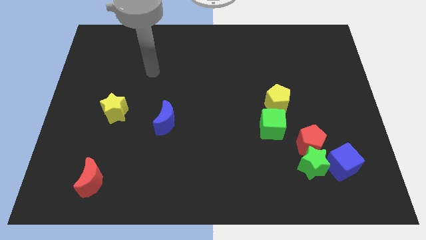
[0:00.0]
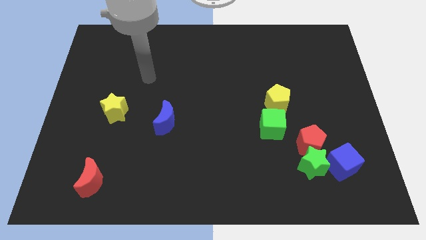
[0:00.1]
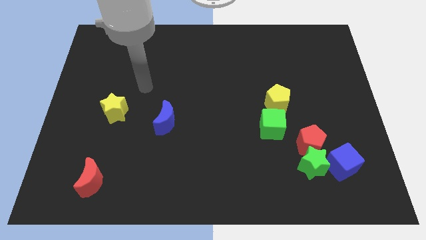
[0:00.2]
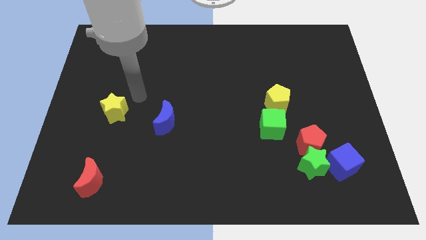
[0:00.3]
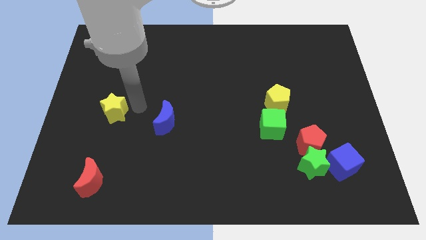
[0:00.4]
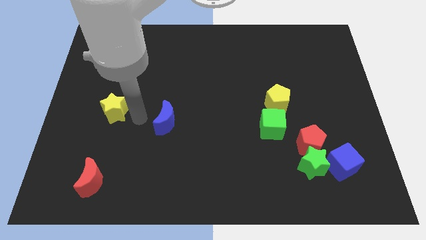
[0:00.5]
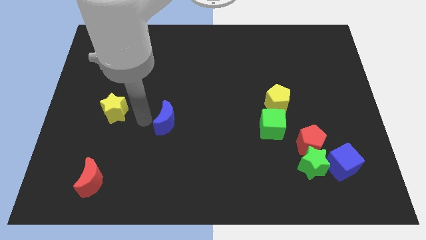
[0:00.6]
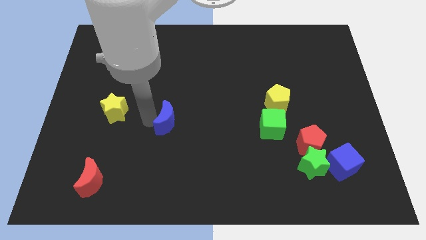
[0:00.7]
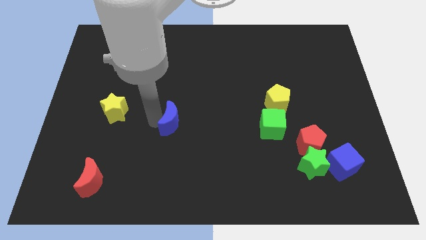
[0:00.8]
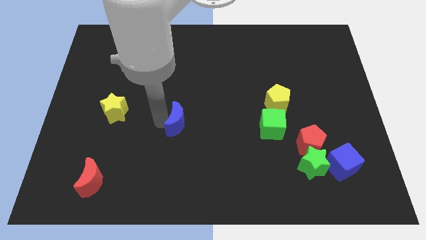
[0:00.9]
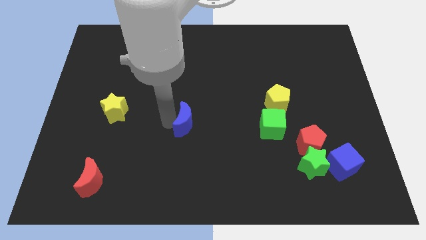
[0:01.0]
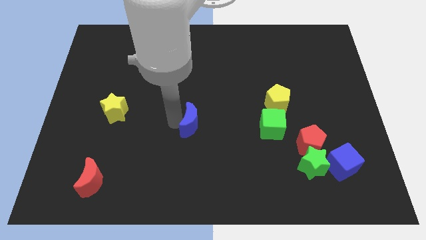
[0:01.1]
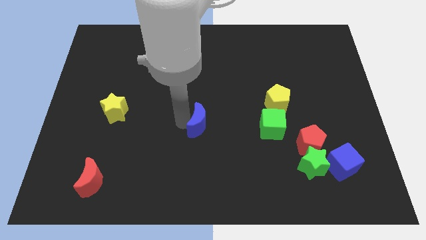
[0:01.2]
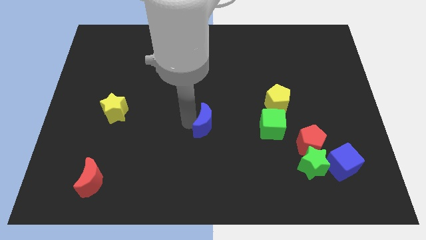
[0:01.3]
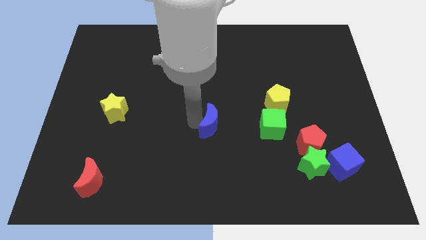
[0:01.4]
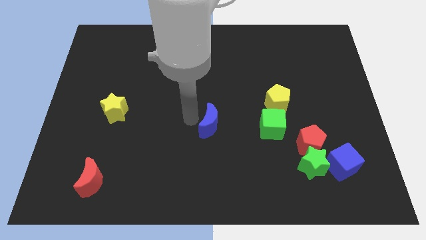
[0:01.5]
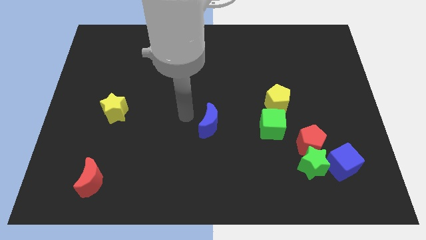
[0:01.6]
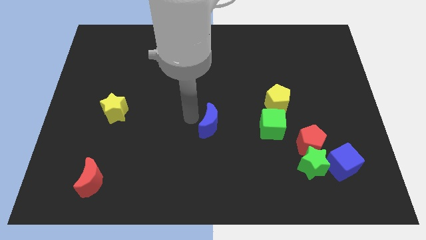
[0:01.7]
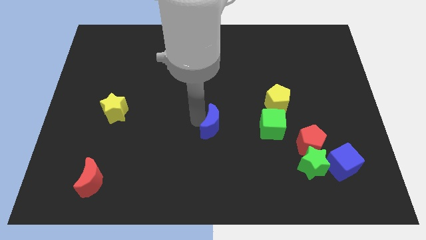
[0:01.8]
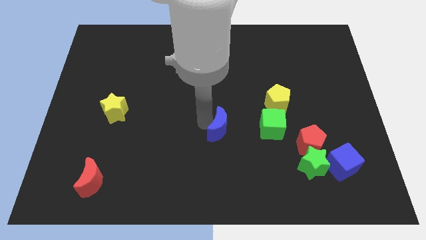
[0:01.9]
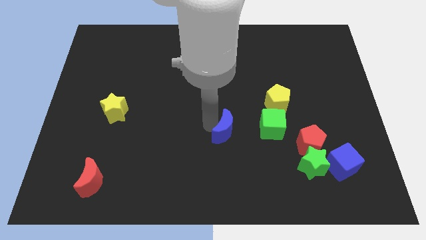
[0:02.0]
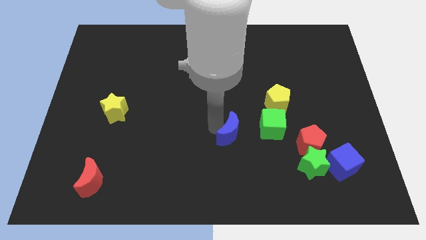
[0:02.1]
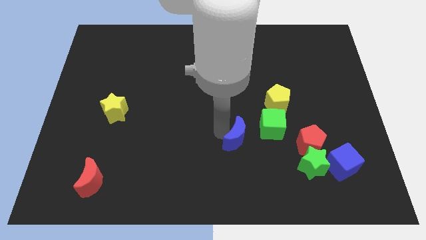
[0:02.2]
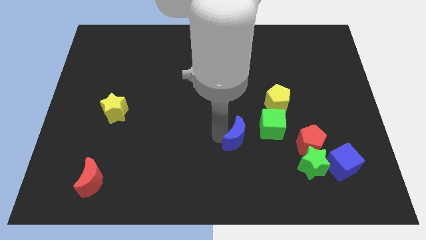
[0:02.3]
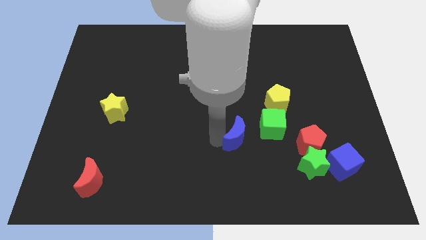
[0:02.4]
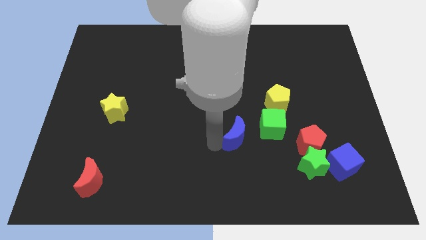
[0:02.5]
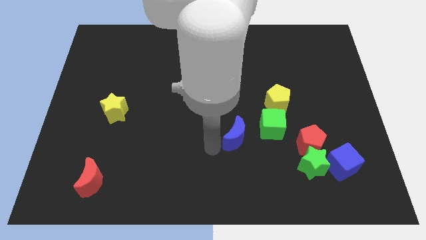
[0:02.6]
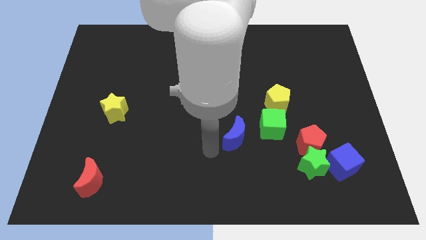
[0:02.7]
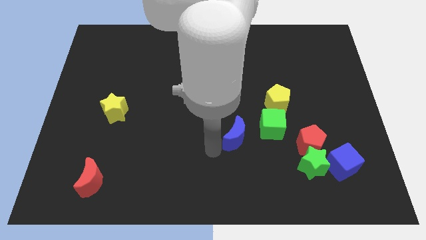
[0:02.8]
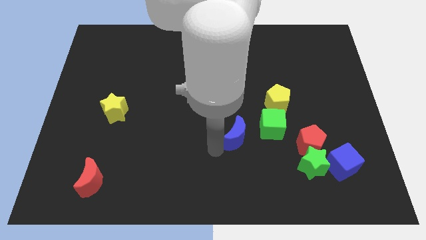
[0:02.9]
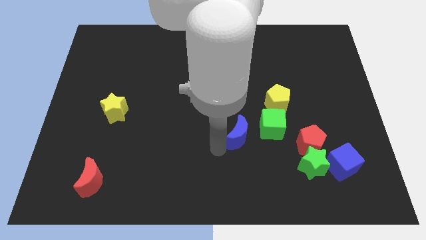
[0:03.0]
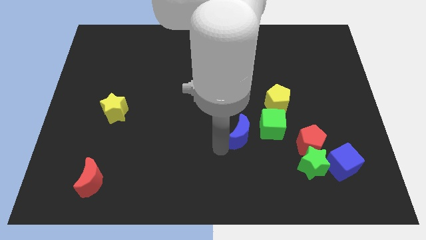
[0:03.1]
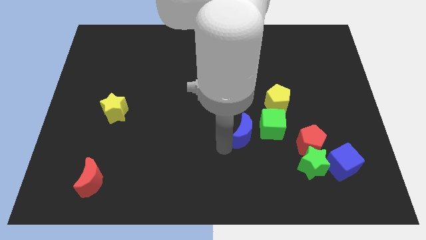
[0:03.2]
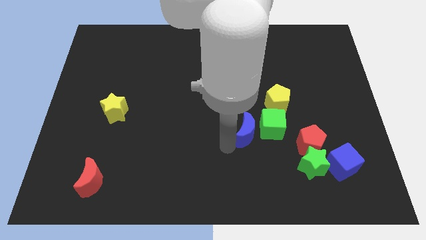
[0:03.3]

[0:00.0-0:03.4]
push the blue moon next to the green cube

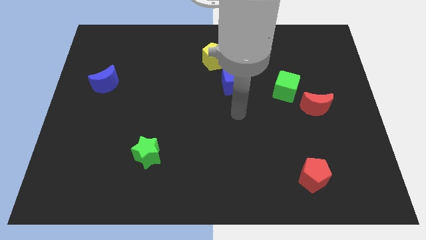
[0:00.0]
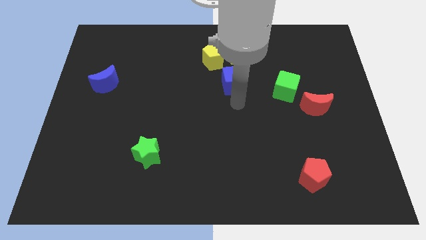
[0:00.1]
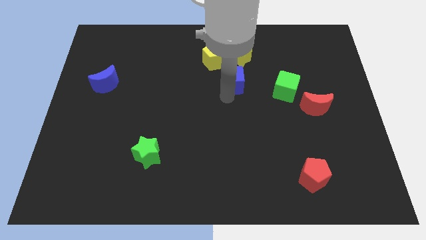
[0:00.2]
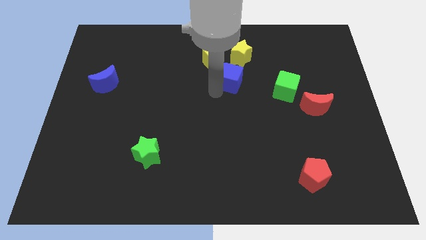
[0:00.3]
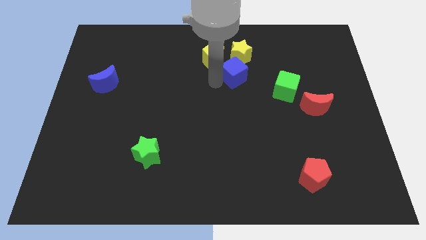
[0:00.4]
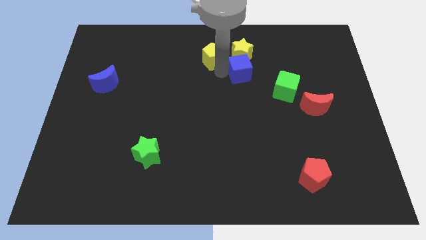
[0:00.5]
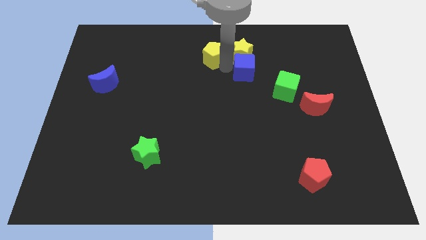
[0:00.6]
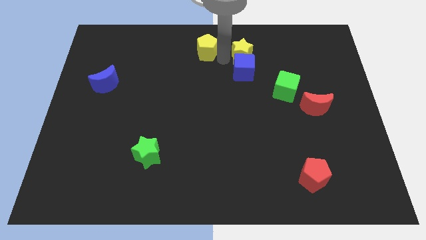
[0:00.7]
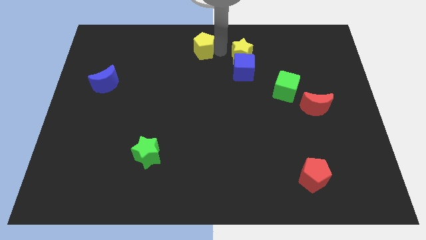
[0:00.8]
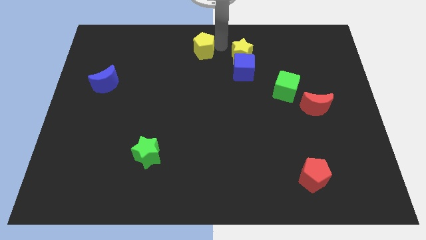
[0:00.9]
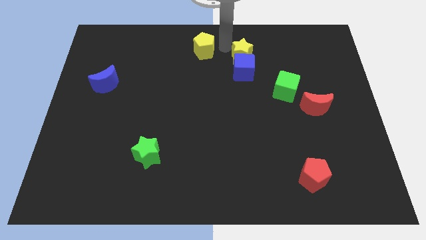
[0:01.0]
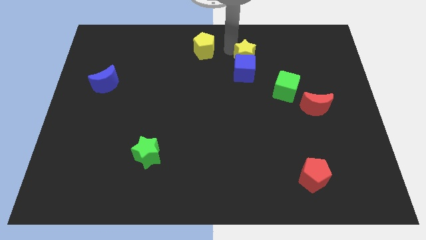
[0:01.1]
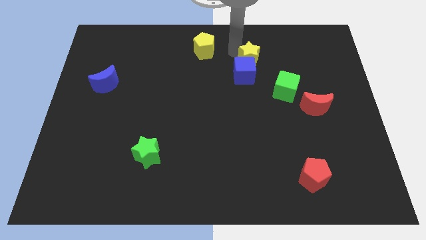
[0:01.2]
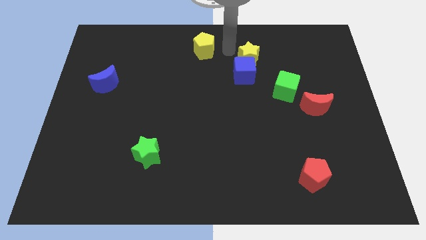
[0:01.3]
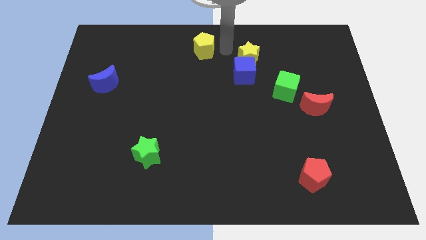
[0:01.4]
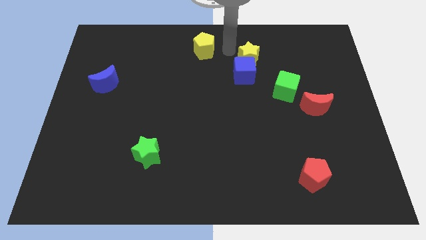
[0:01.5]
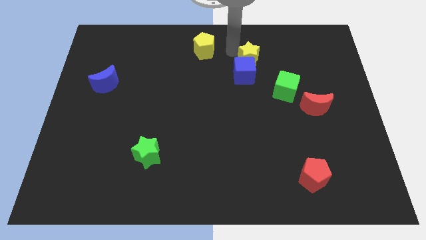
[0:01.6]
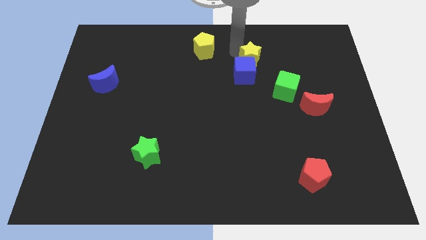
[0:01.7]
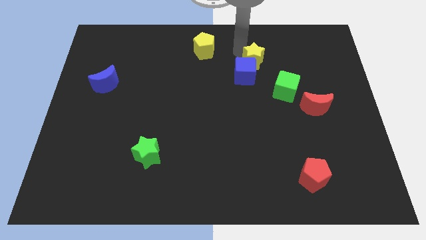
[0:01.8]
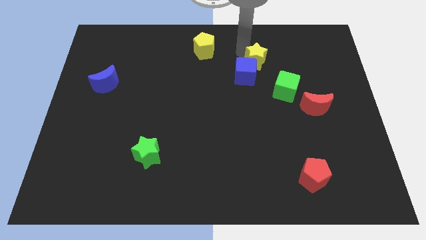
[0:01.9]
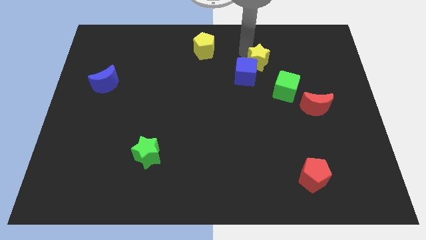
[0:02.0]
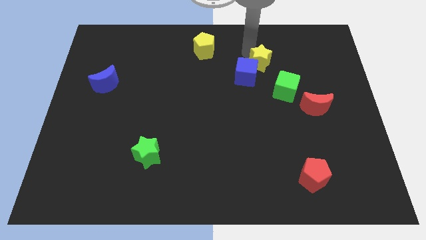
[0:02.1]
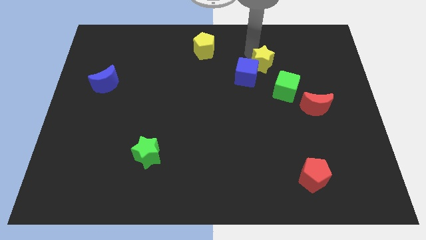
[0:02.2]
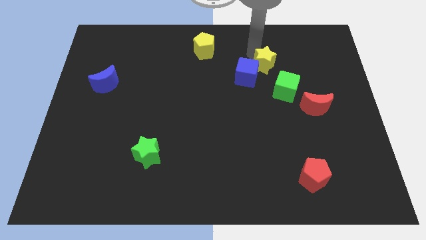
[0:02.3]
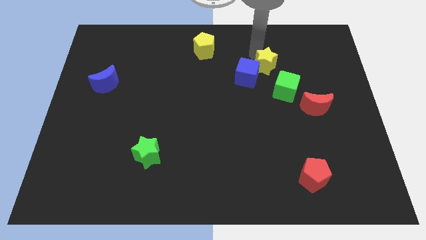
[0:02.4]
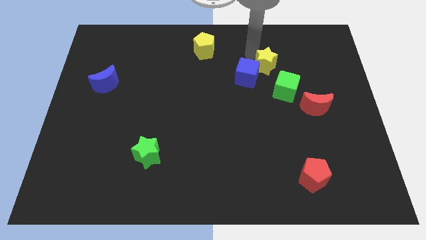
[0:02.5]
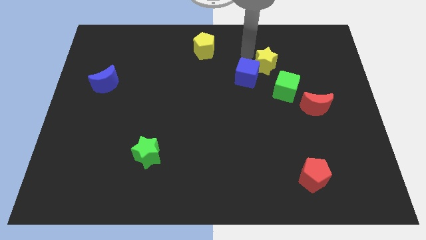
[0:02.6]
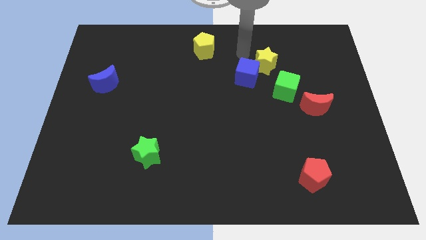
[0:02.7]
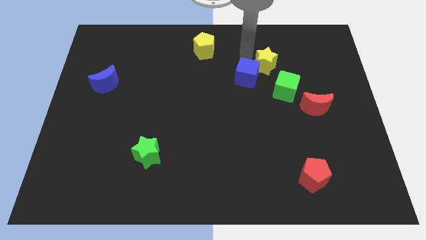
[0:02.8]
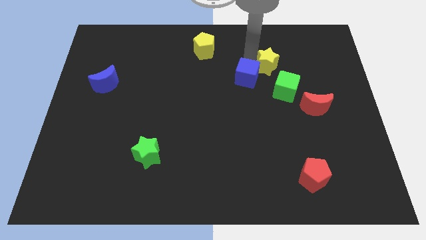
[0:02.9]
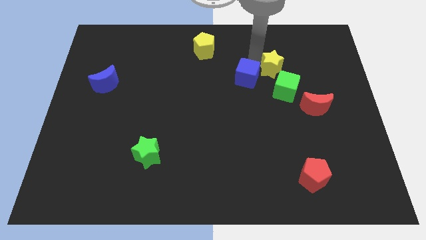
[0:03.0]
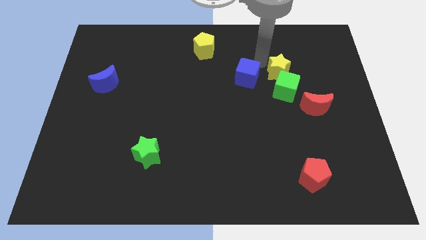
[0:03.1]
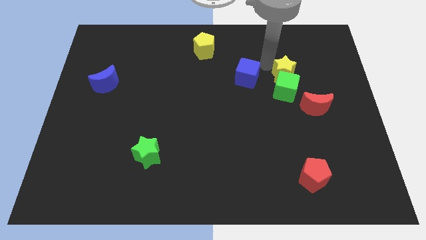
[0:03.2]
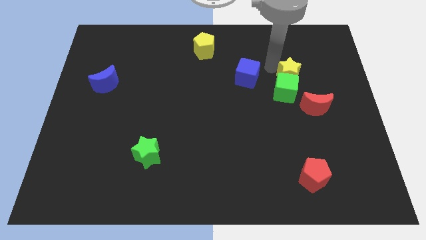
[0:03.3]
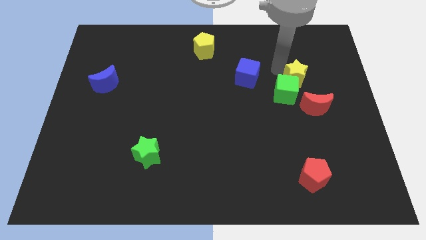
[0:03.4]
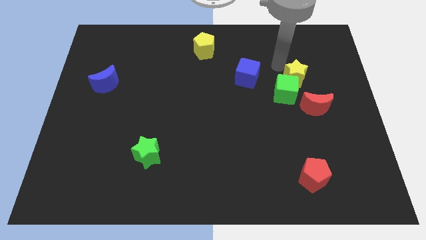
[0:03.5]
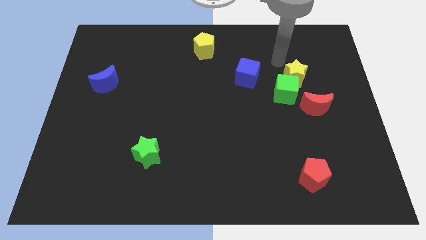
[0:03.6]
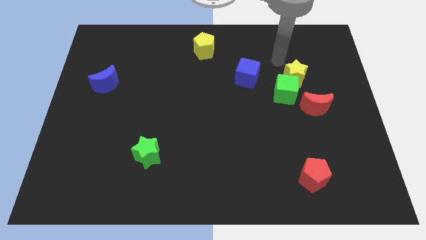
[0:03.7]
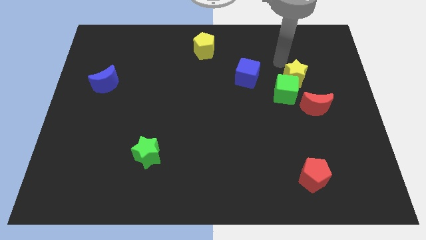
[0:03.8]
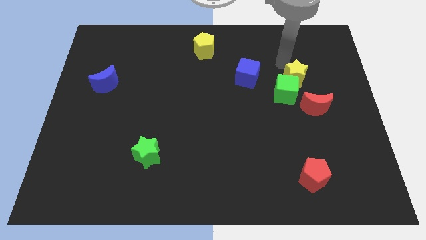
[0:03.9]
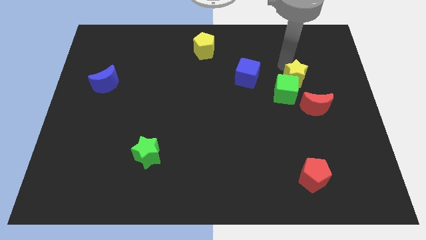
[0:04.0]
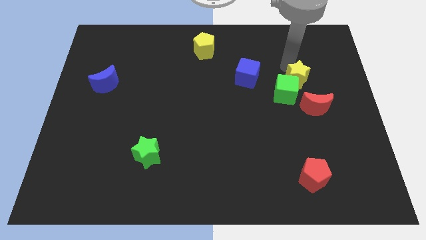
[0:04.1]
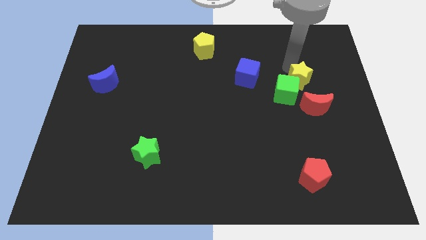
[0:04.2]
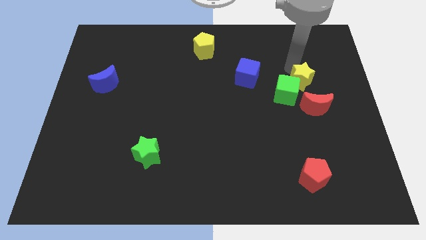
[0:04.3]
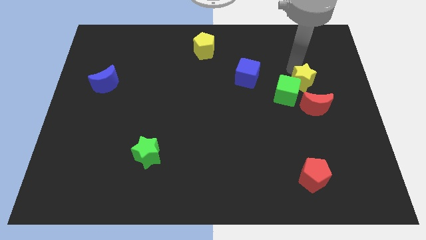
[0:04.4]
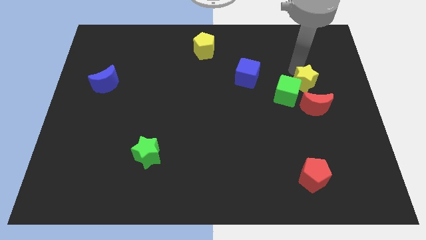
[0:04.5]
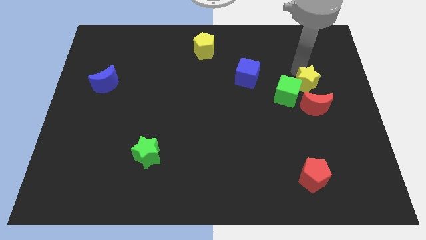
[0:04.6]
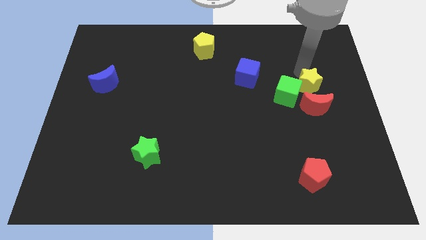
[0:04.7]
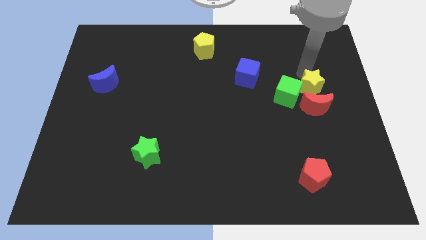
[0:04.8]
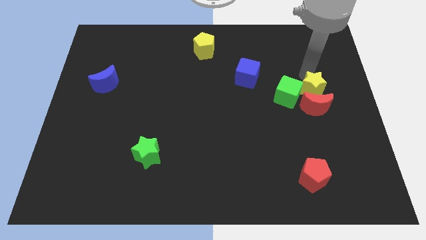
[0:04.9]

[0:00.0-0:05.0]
put the yellow star to the red moon
